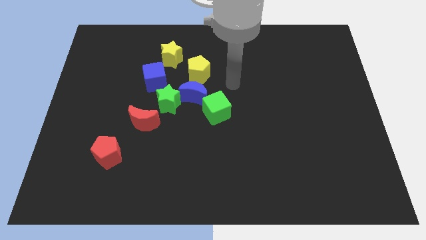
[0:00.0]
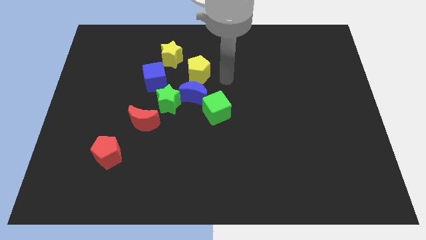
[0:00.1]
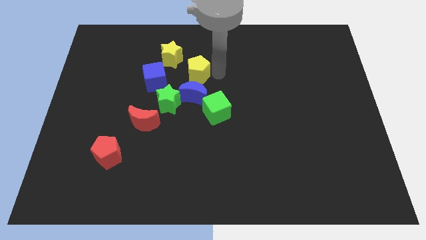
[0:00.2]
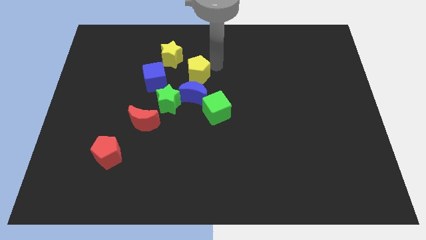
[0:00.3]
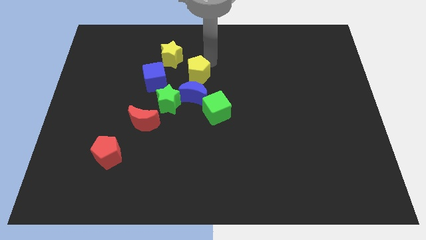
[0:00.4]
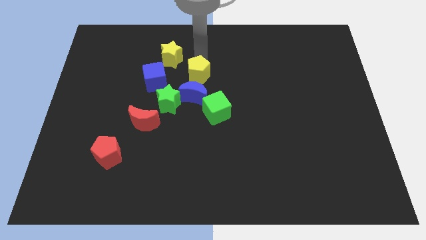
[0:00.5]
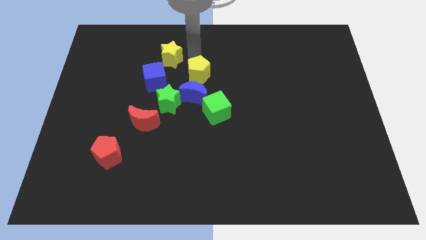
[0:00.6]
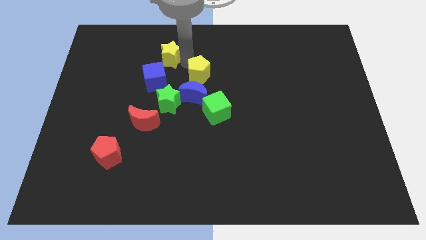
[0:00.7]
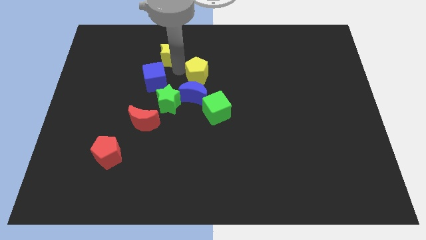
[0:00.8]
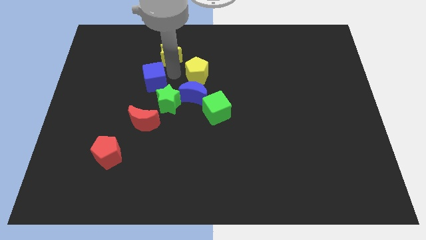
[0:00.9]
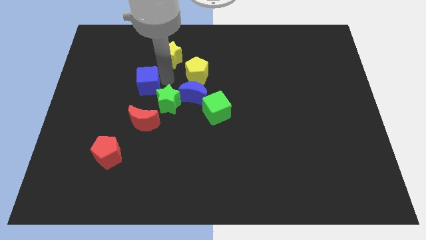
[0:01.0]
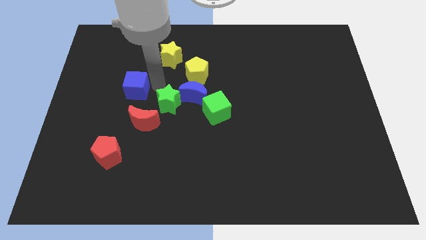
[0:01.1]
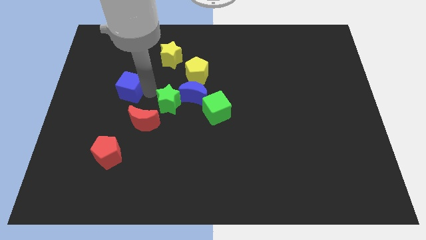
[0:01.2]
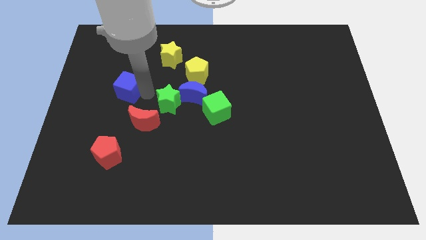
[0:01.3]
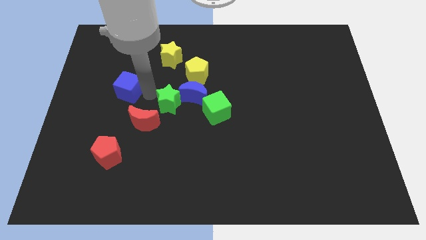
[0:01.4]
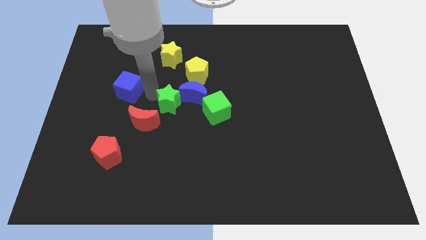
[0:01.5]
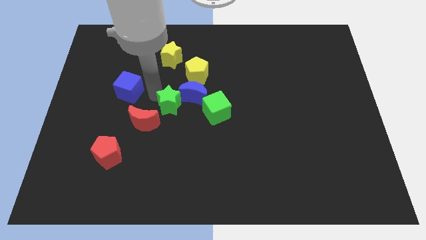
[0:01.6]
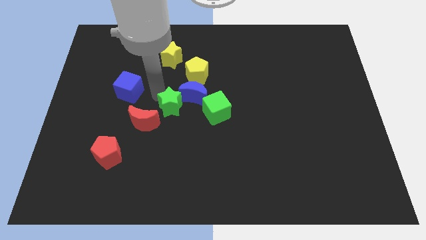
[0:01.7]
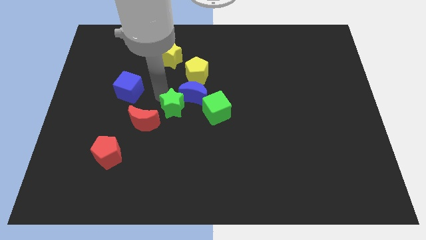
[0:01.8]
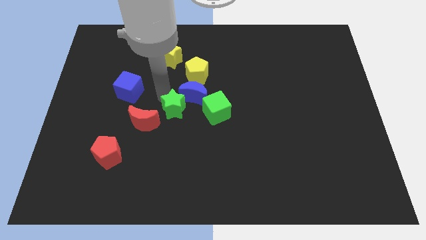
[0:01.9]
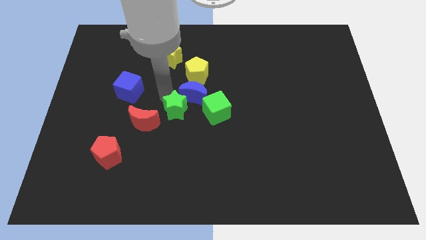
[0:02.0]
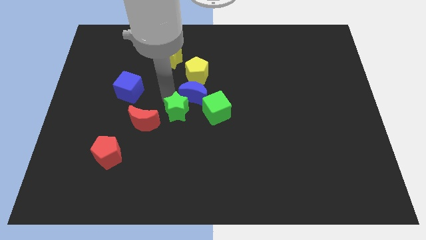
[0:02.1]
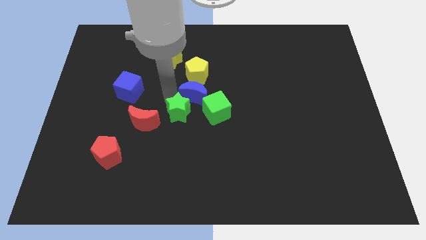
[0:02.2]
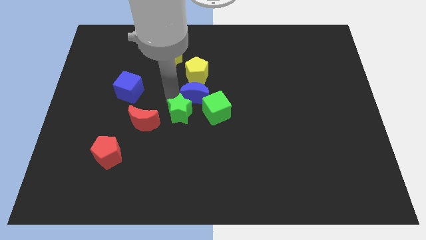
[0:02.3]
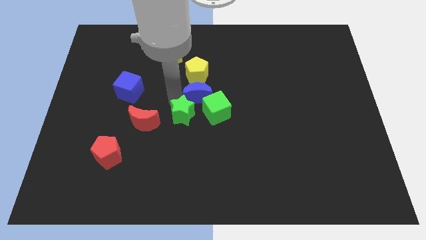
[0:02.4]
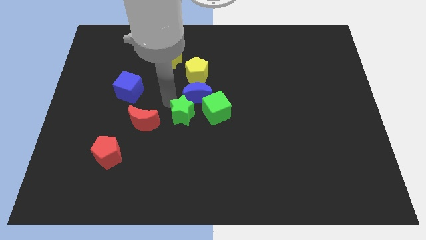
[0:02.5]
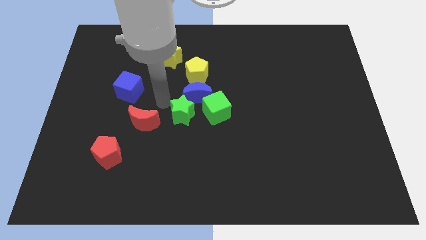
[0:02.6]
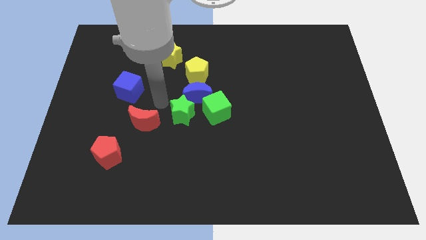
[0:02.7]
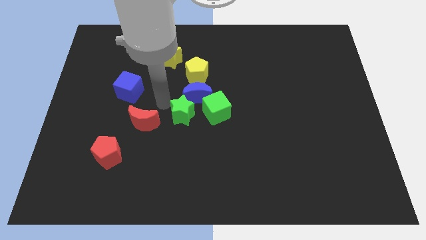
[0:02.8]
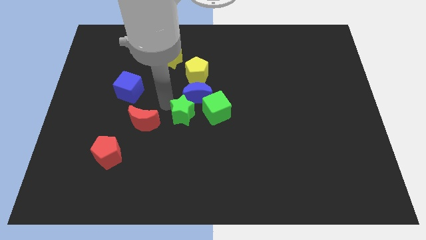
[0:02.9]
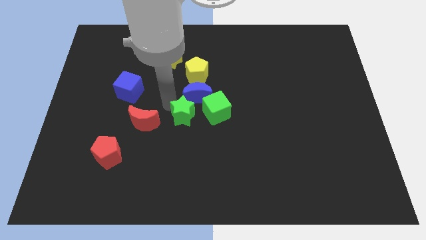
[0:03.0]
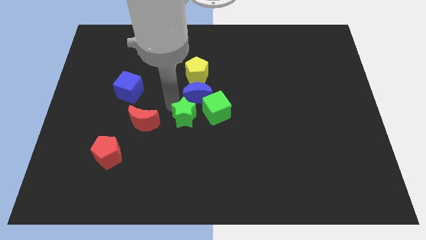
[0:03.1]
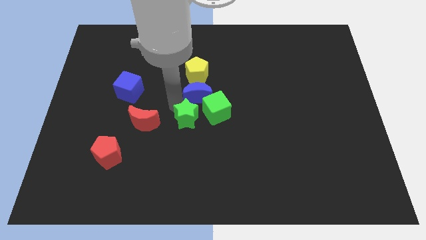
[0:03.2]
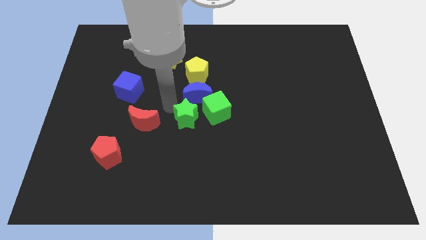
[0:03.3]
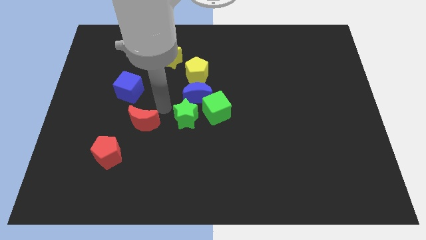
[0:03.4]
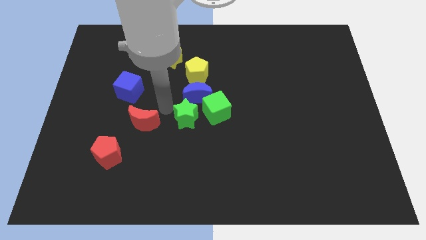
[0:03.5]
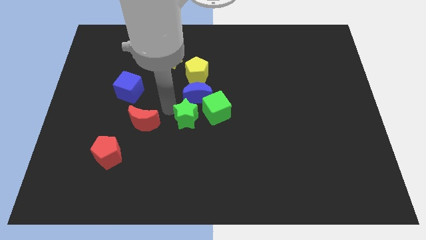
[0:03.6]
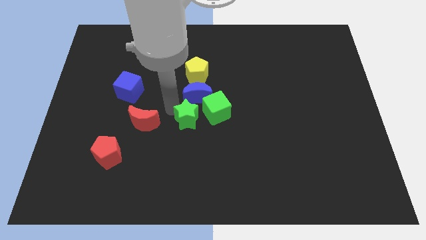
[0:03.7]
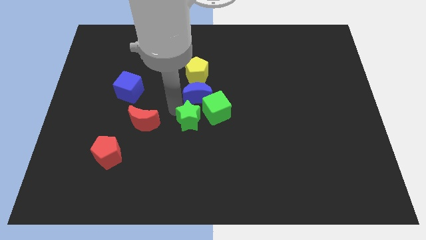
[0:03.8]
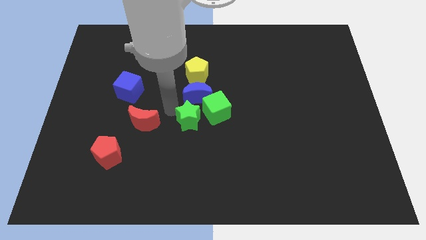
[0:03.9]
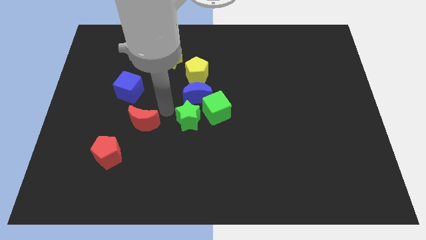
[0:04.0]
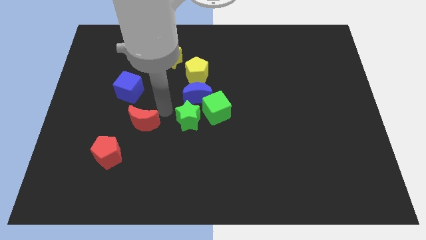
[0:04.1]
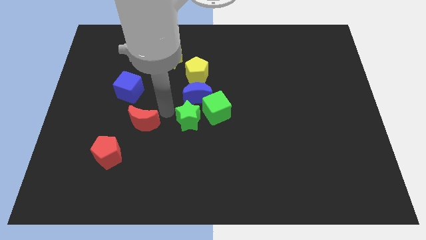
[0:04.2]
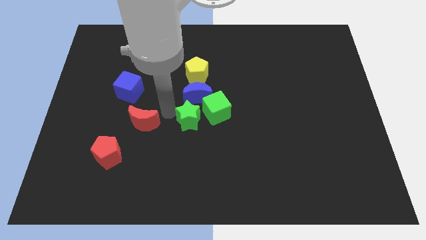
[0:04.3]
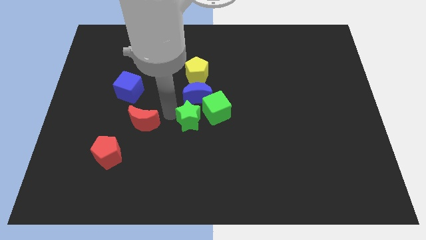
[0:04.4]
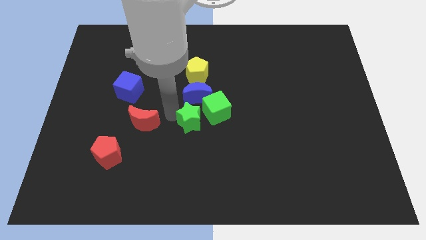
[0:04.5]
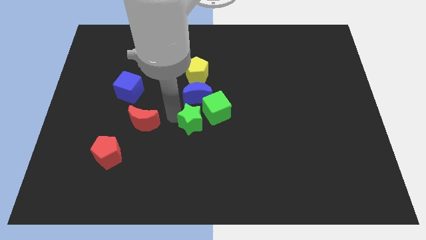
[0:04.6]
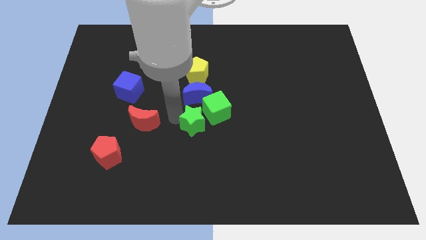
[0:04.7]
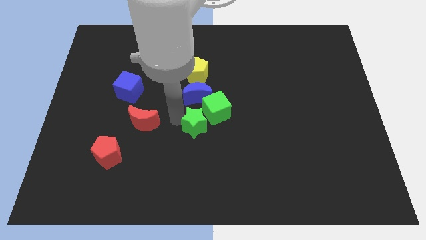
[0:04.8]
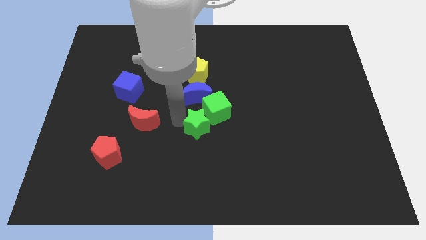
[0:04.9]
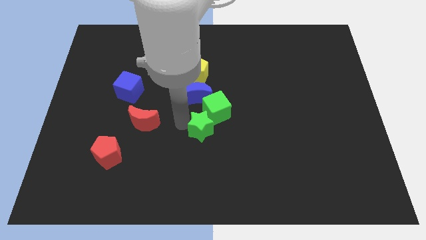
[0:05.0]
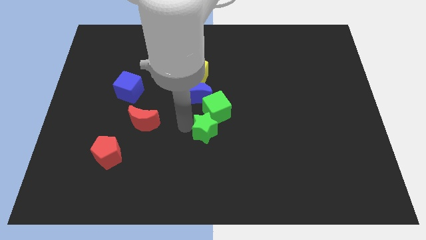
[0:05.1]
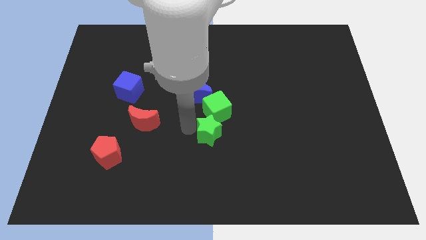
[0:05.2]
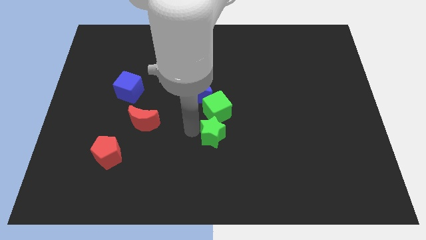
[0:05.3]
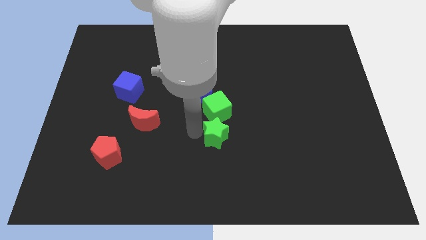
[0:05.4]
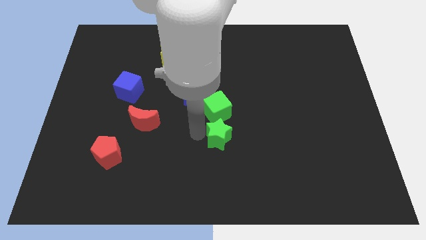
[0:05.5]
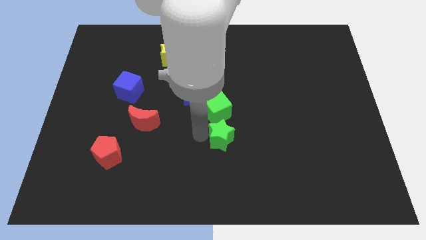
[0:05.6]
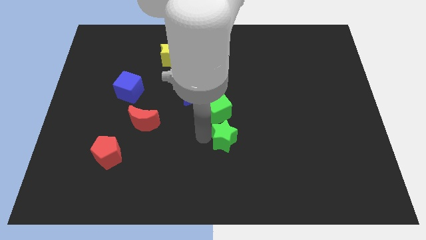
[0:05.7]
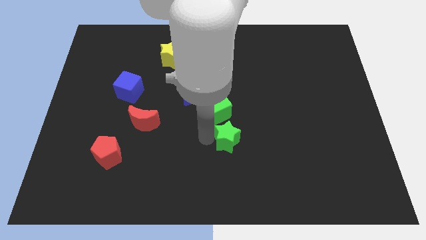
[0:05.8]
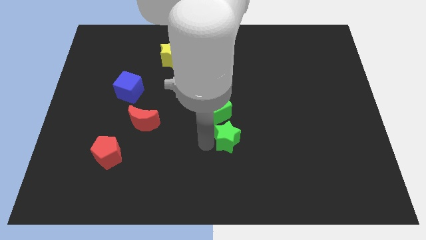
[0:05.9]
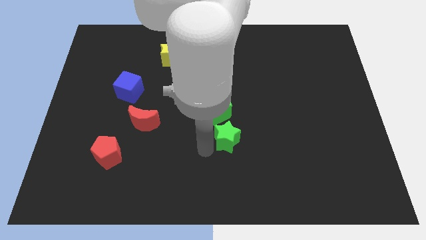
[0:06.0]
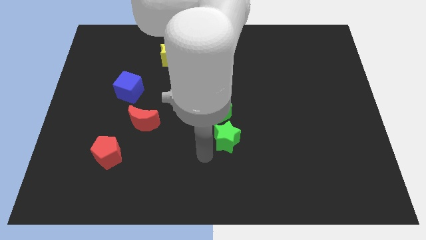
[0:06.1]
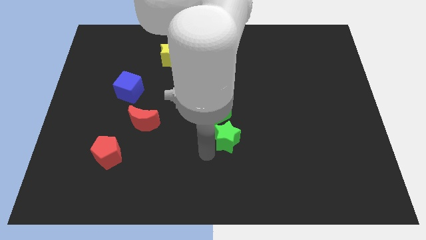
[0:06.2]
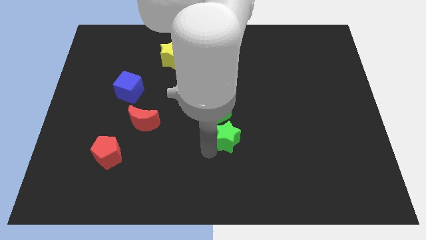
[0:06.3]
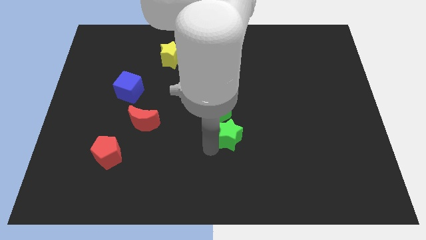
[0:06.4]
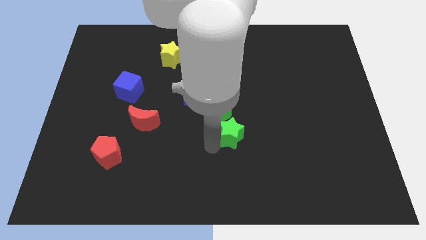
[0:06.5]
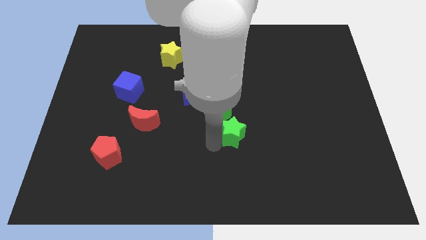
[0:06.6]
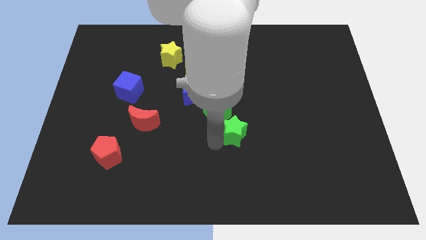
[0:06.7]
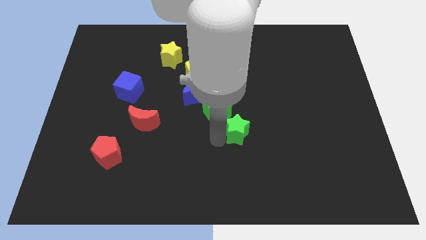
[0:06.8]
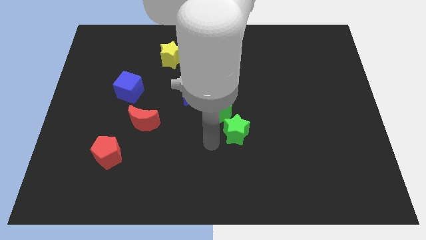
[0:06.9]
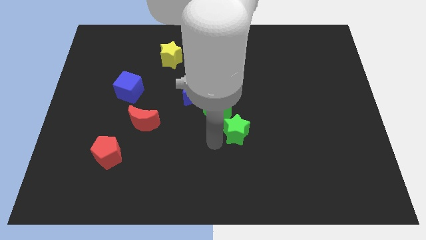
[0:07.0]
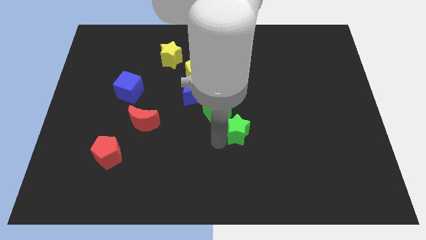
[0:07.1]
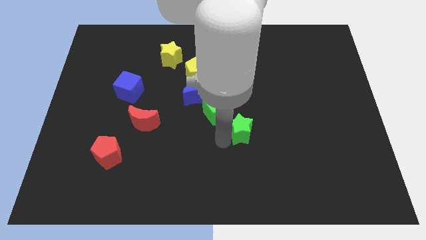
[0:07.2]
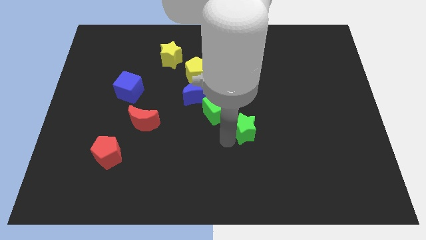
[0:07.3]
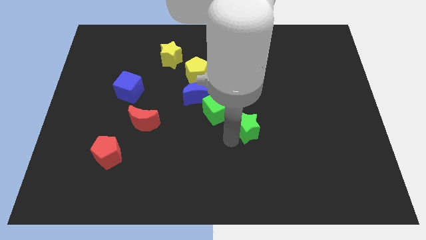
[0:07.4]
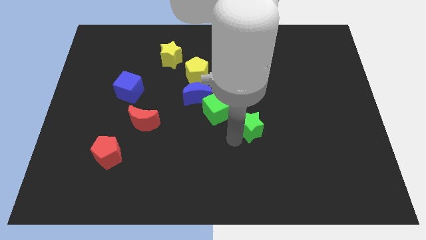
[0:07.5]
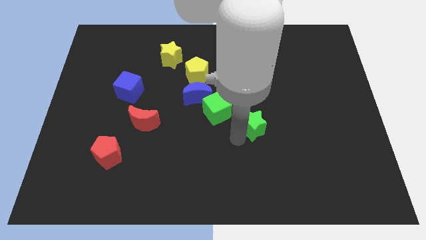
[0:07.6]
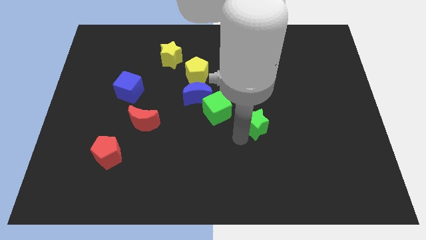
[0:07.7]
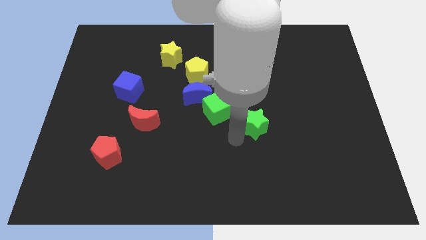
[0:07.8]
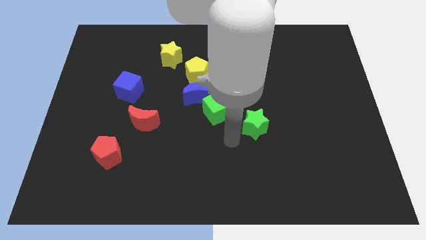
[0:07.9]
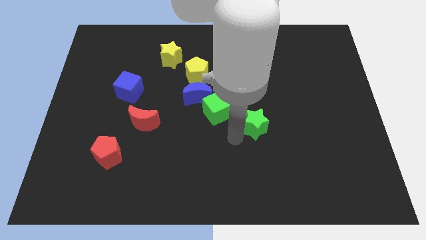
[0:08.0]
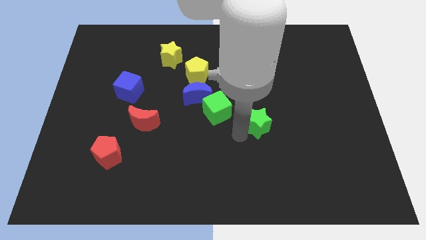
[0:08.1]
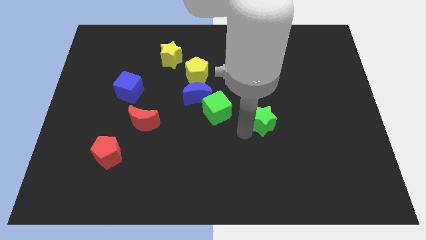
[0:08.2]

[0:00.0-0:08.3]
slide the green star to the right
